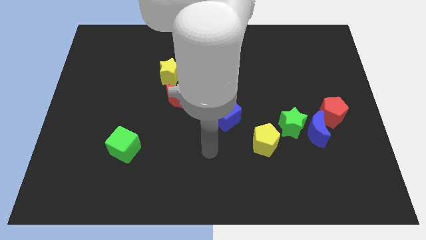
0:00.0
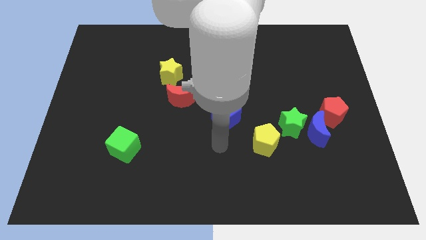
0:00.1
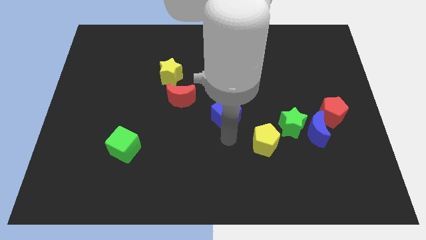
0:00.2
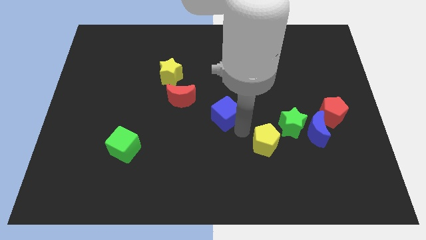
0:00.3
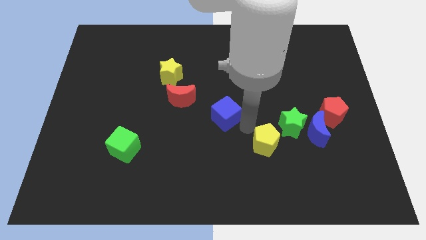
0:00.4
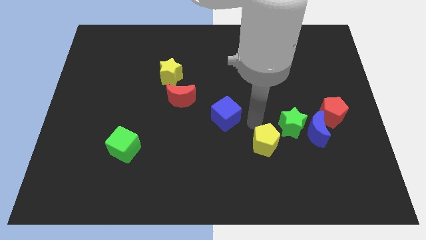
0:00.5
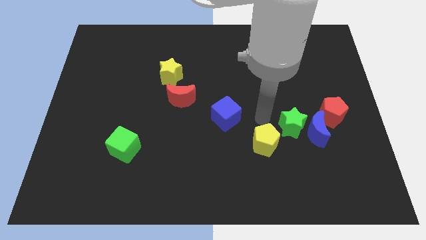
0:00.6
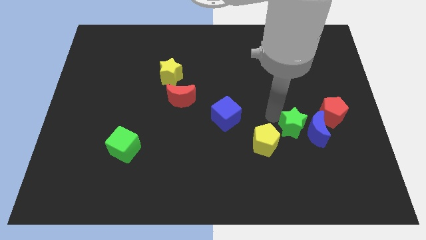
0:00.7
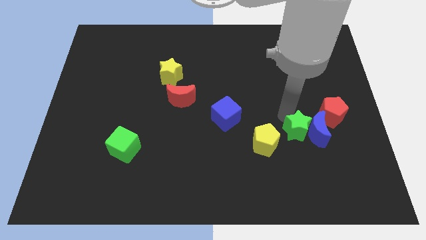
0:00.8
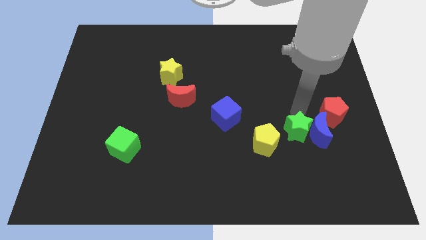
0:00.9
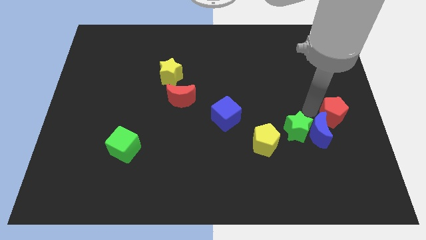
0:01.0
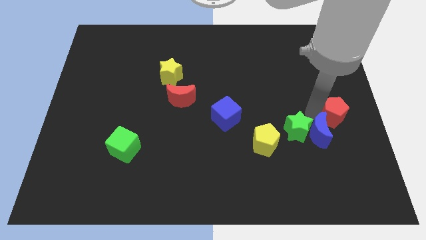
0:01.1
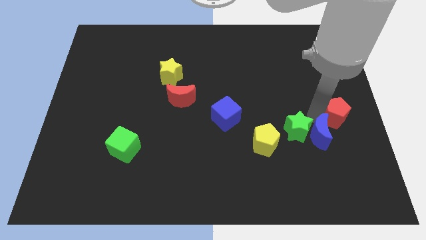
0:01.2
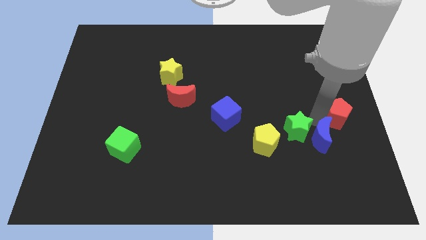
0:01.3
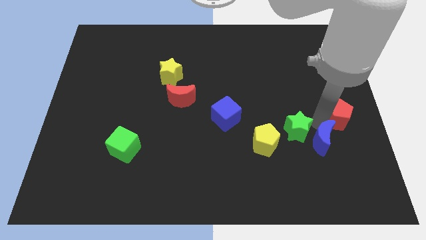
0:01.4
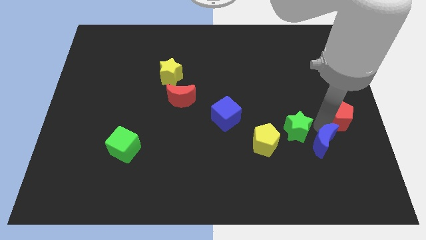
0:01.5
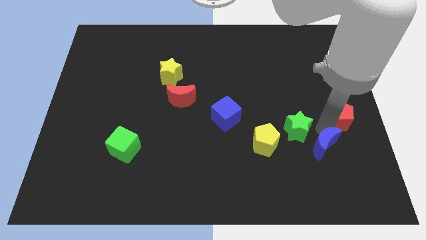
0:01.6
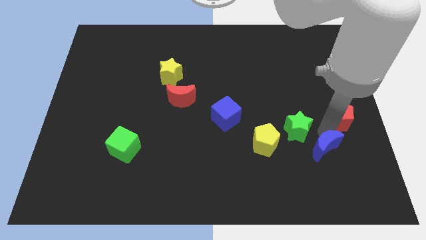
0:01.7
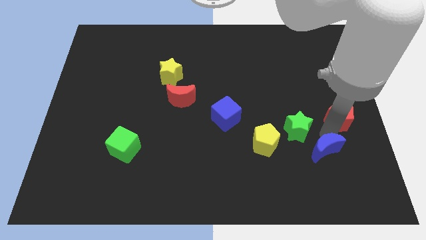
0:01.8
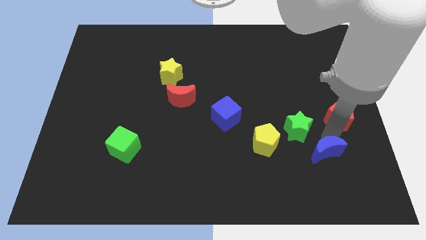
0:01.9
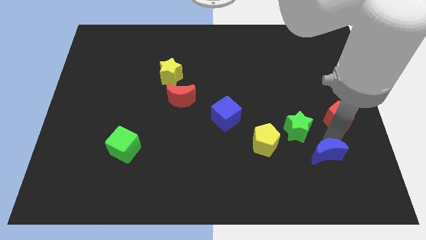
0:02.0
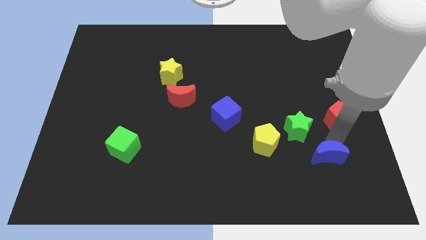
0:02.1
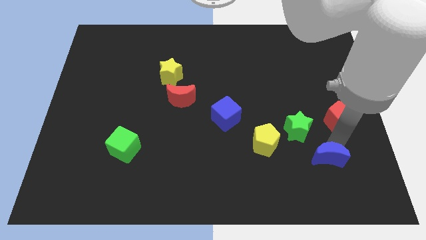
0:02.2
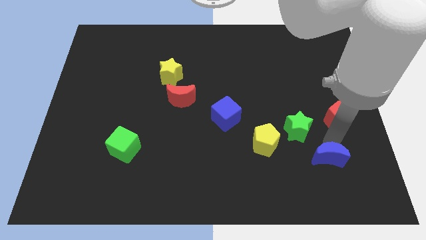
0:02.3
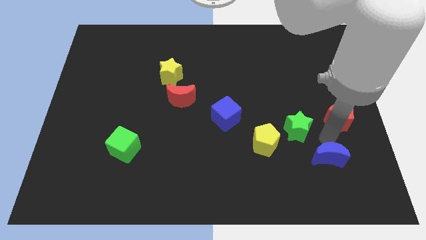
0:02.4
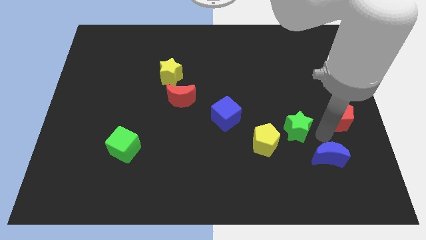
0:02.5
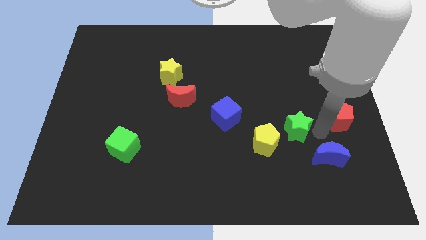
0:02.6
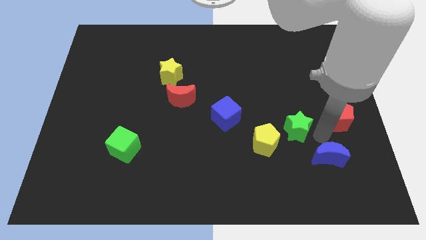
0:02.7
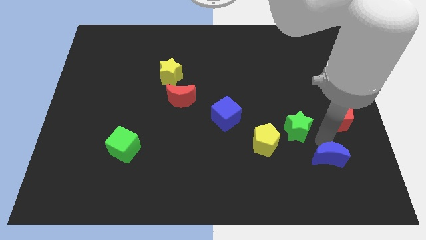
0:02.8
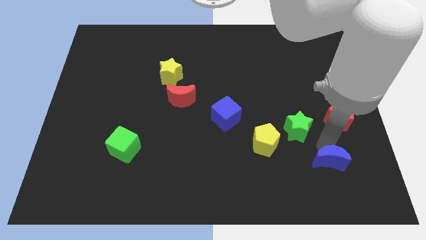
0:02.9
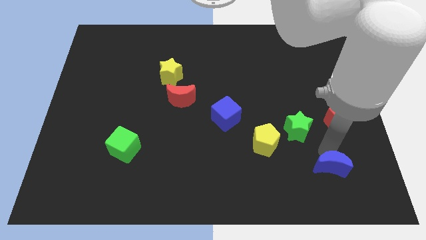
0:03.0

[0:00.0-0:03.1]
move the blue moon away from the green star and red pentagon

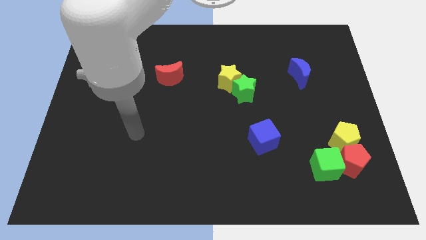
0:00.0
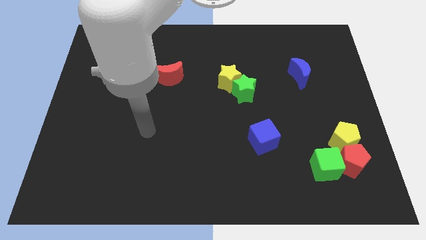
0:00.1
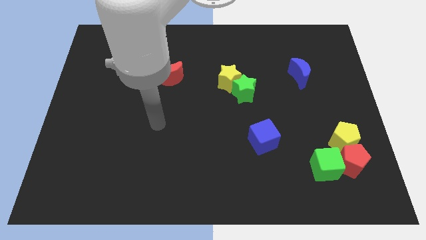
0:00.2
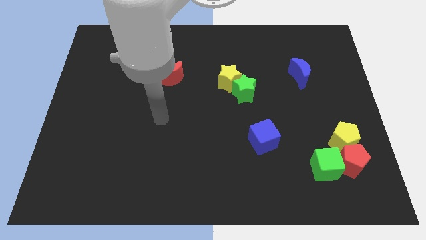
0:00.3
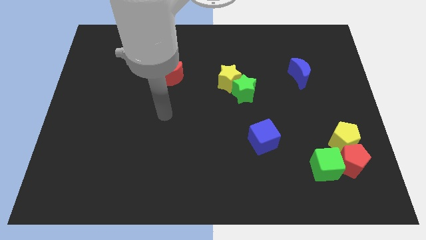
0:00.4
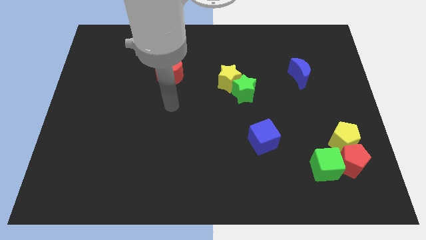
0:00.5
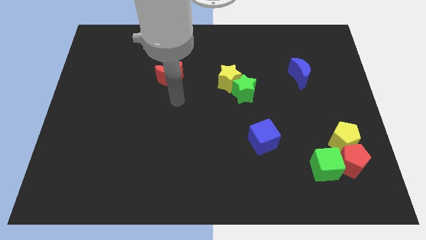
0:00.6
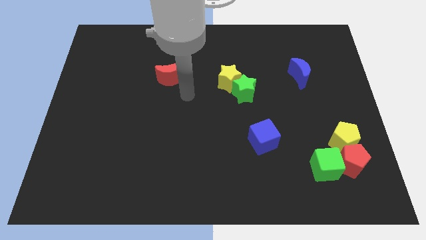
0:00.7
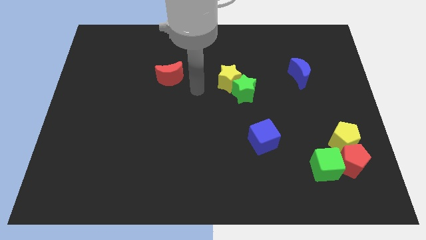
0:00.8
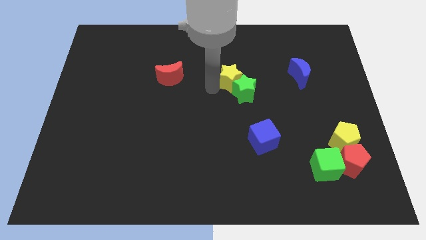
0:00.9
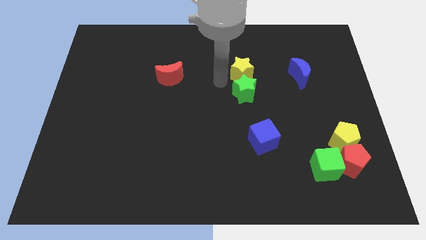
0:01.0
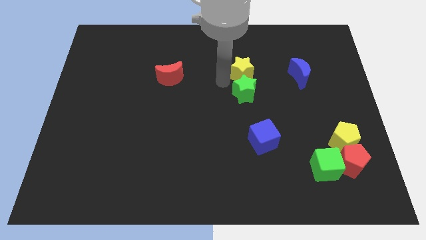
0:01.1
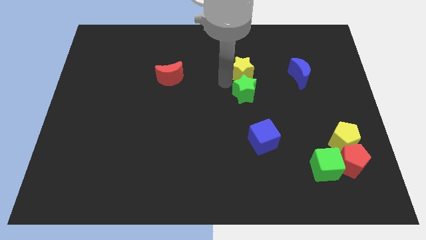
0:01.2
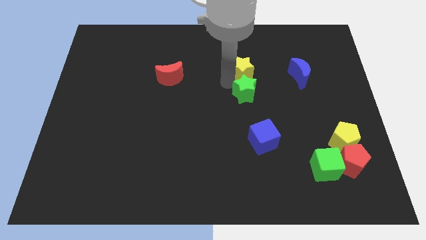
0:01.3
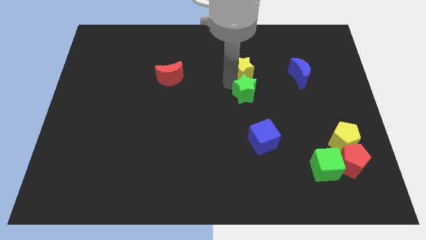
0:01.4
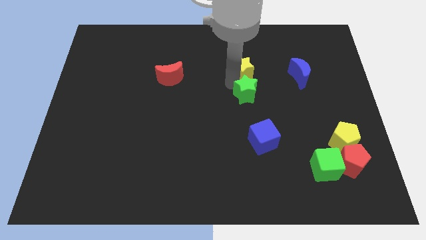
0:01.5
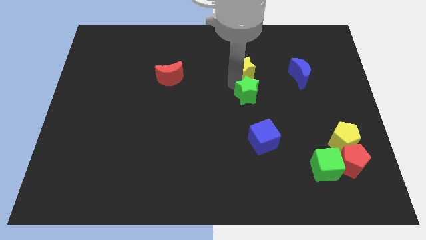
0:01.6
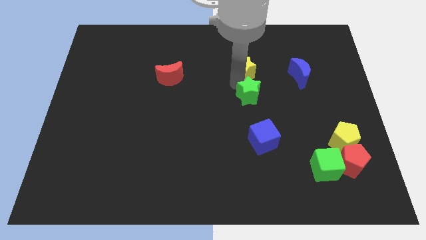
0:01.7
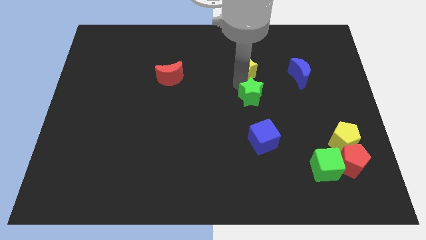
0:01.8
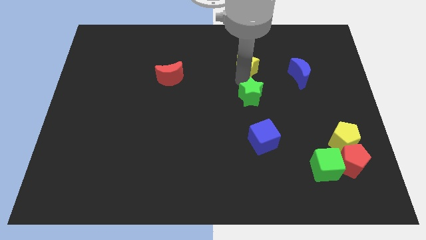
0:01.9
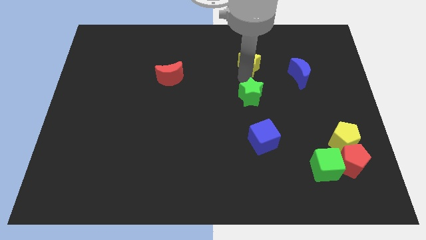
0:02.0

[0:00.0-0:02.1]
separate the green star from the yellow star

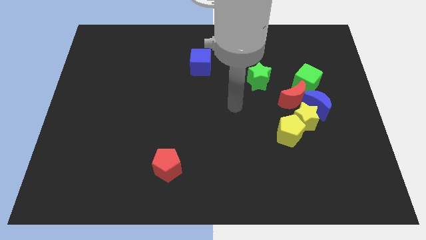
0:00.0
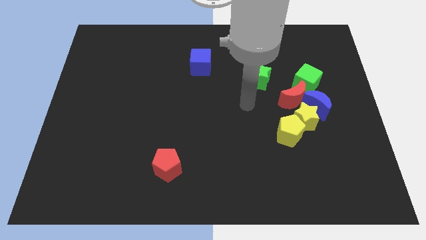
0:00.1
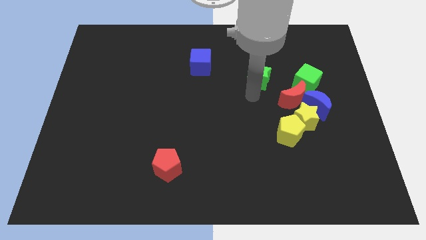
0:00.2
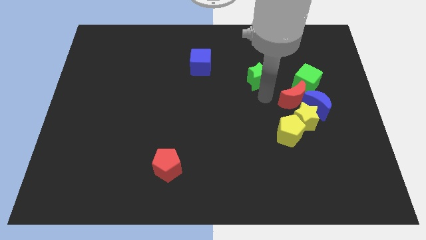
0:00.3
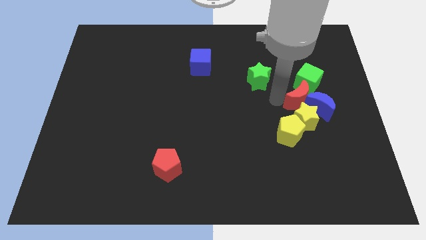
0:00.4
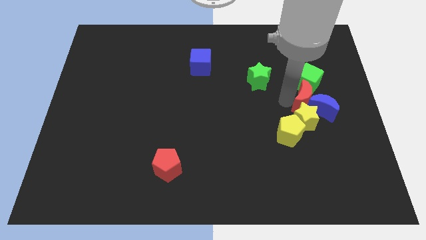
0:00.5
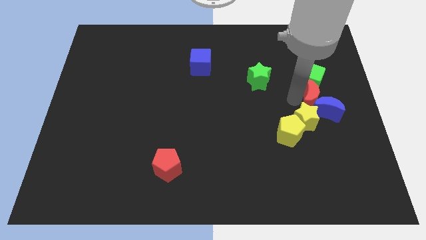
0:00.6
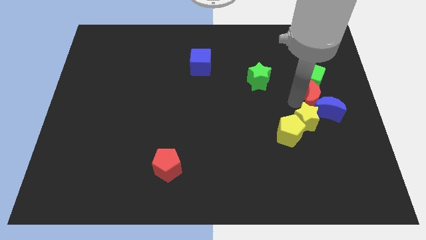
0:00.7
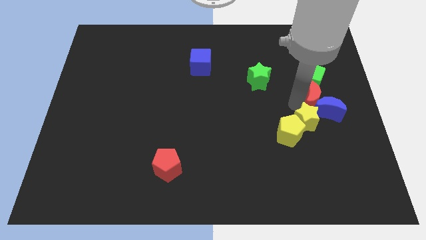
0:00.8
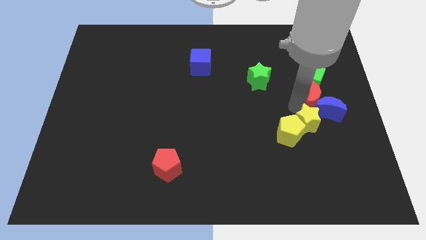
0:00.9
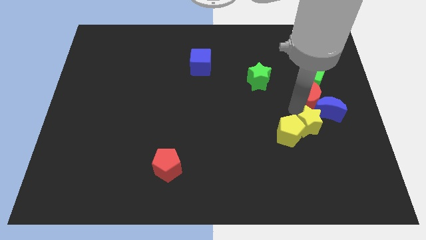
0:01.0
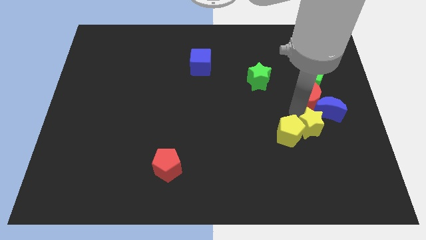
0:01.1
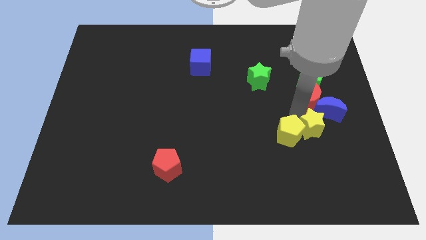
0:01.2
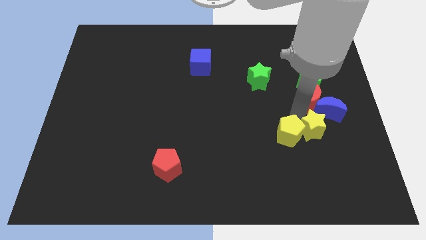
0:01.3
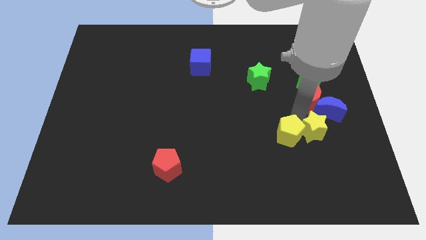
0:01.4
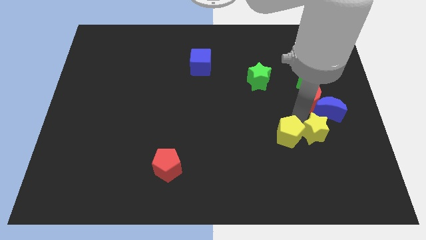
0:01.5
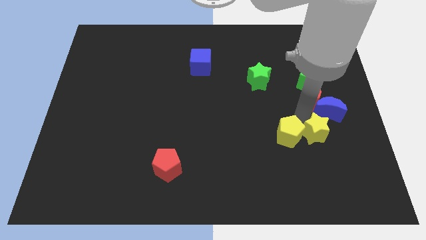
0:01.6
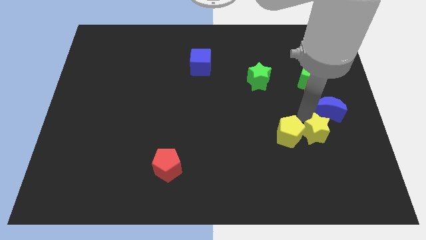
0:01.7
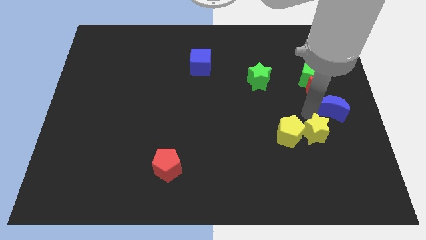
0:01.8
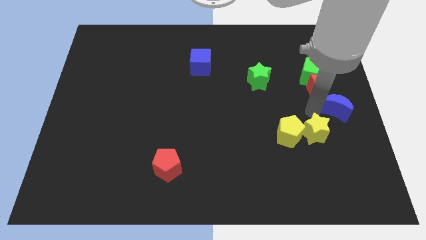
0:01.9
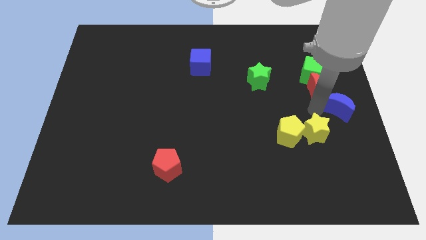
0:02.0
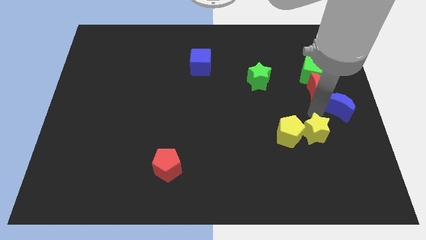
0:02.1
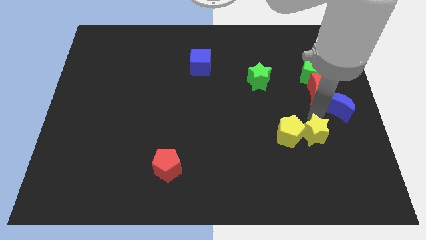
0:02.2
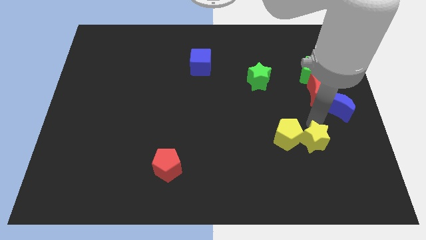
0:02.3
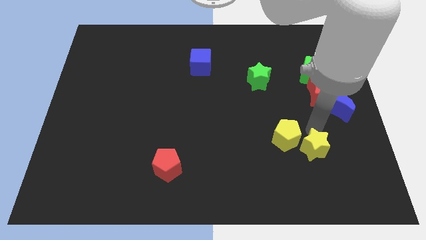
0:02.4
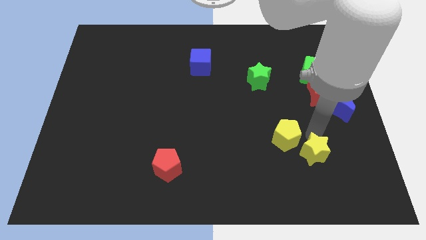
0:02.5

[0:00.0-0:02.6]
move the yellow star away from the group

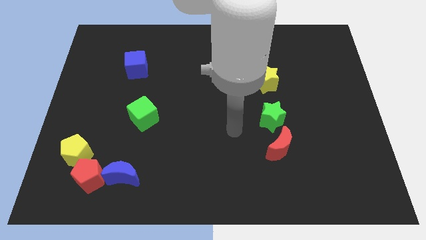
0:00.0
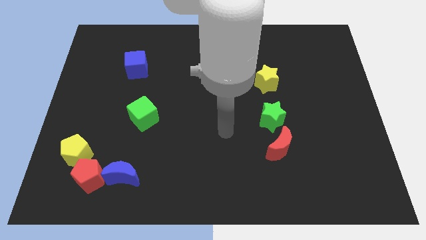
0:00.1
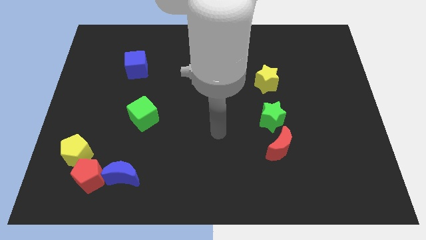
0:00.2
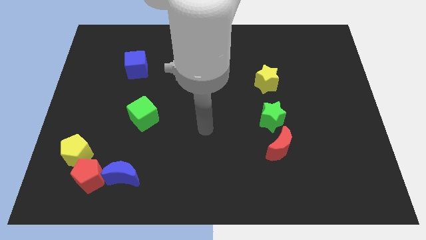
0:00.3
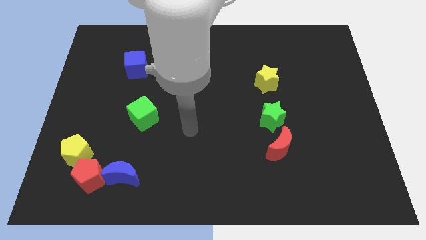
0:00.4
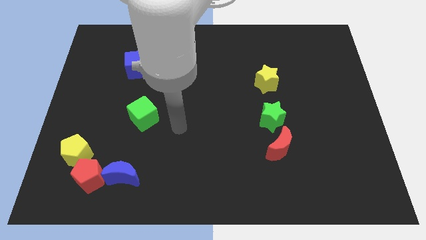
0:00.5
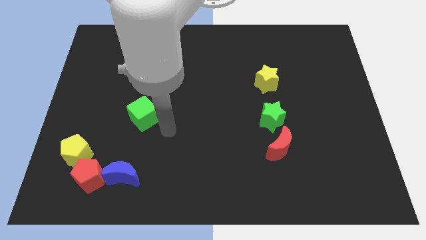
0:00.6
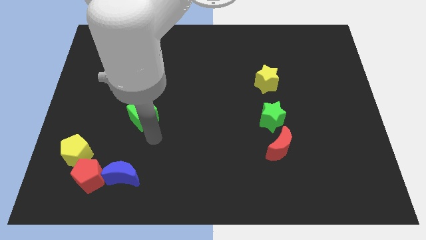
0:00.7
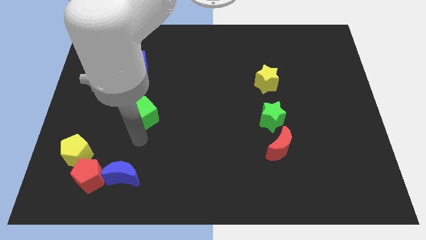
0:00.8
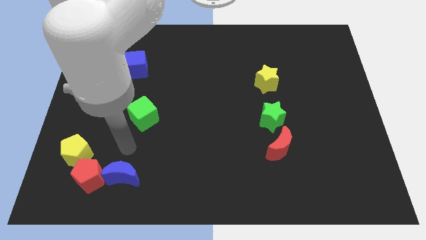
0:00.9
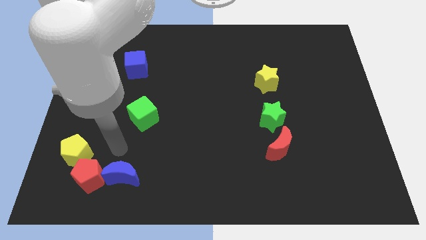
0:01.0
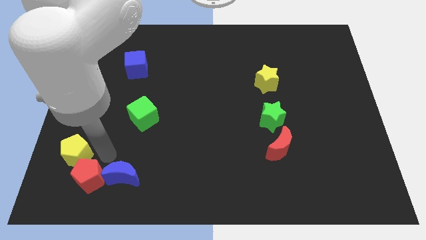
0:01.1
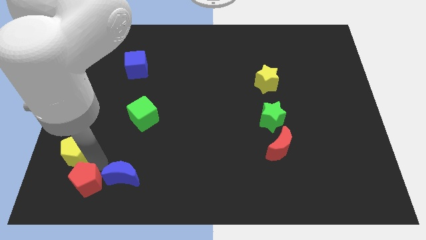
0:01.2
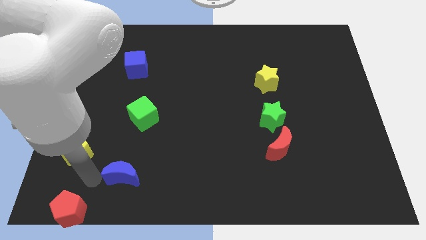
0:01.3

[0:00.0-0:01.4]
separate the blue moon from the red pentagon

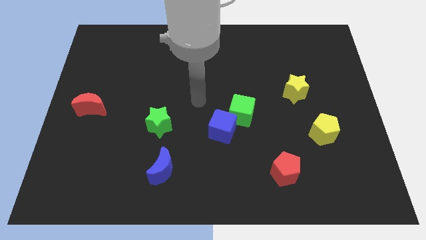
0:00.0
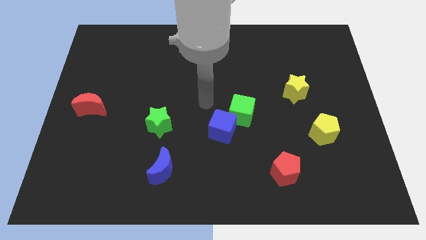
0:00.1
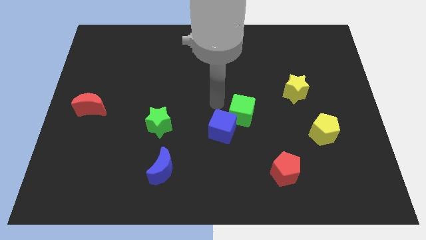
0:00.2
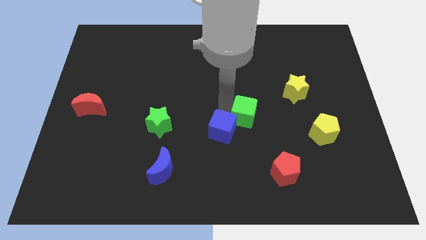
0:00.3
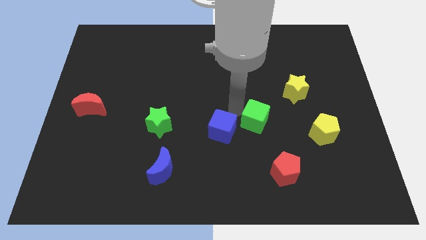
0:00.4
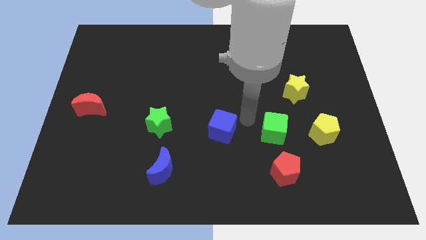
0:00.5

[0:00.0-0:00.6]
separate the blue cube from the green cube
